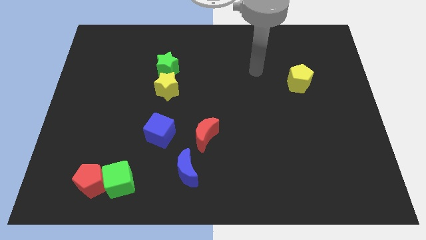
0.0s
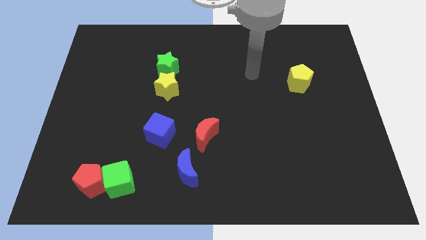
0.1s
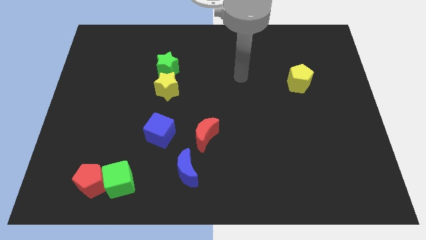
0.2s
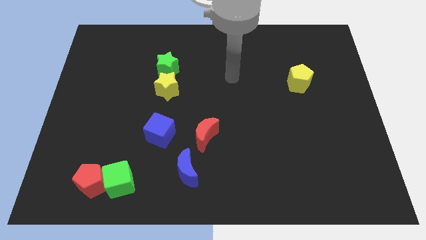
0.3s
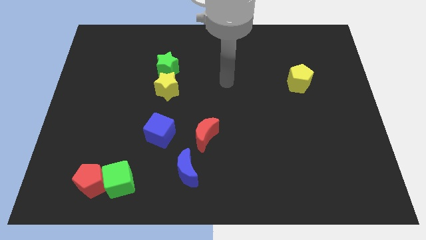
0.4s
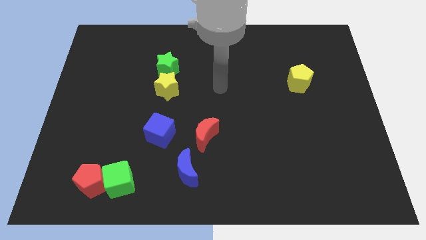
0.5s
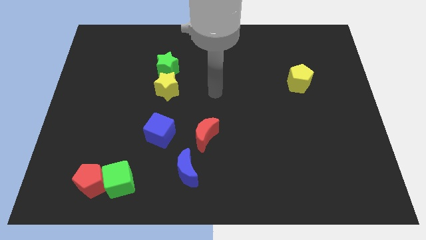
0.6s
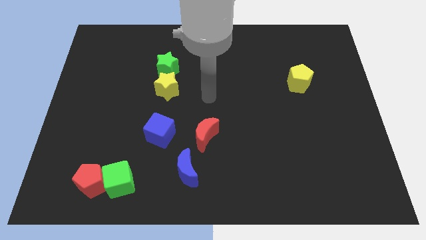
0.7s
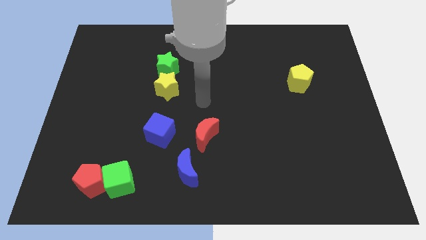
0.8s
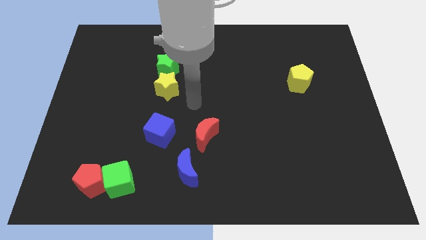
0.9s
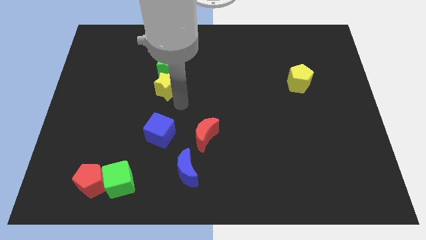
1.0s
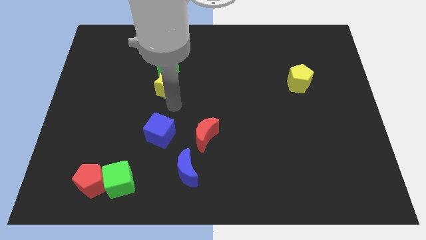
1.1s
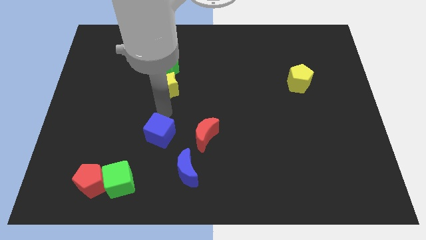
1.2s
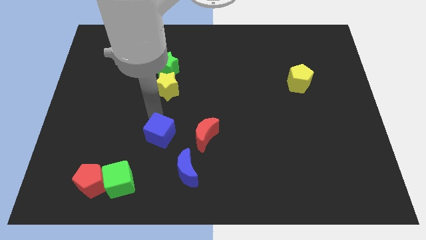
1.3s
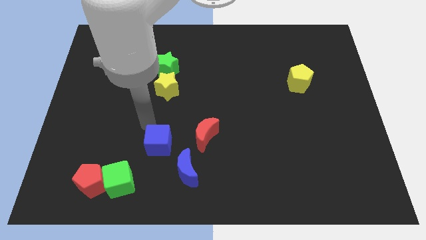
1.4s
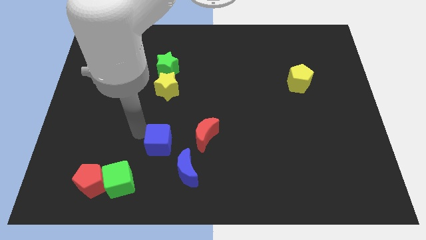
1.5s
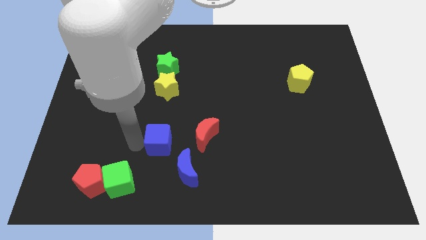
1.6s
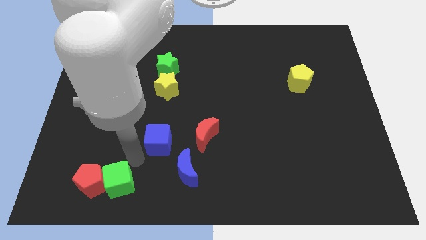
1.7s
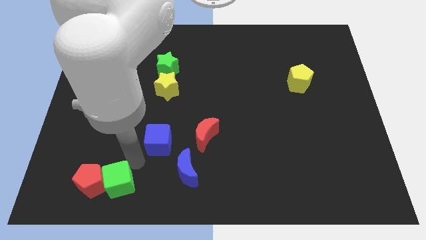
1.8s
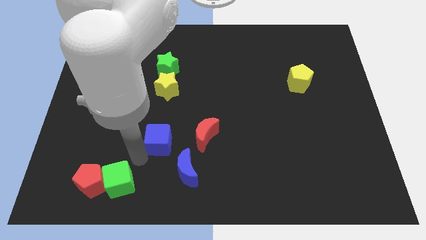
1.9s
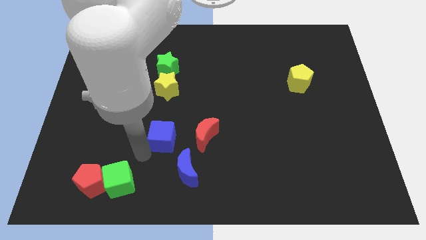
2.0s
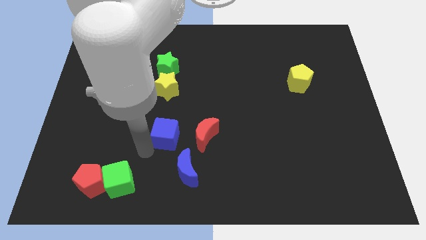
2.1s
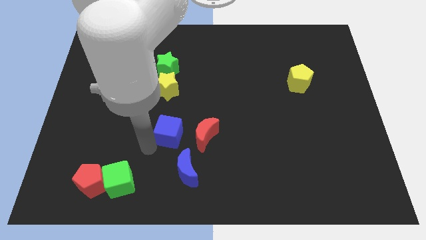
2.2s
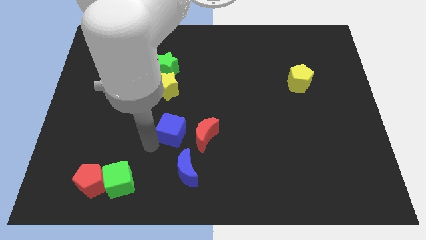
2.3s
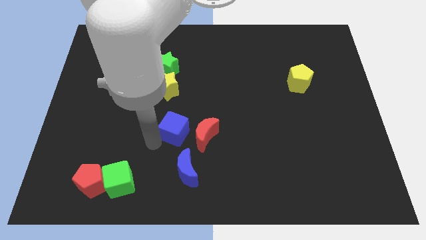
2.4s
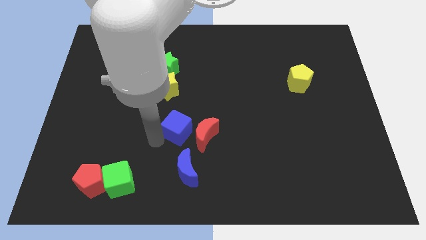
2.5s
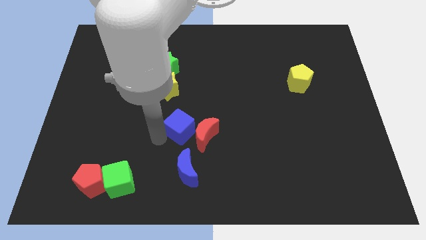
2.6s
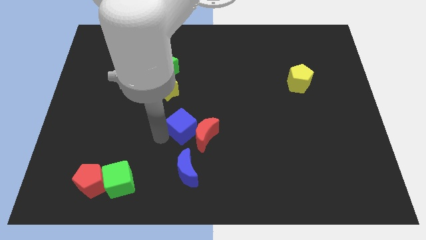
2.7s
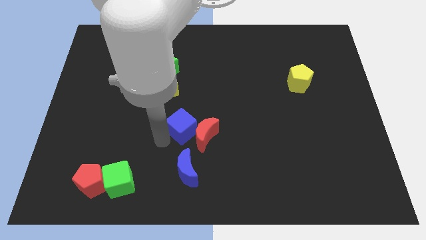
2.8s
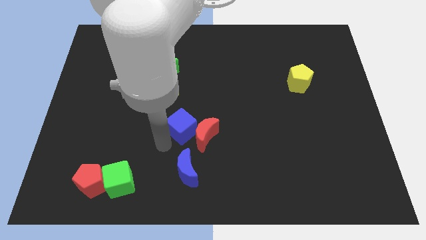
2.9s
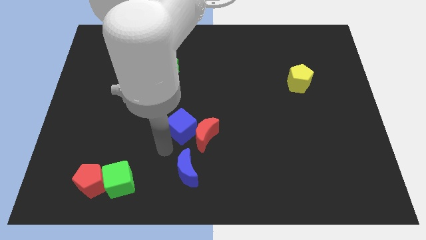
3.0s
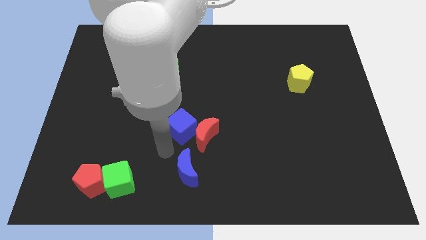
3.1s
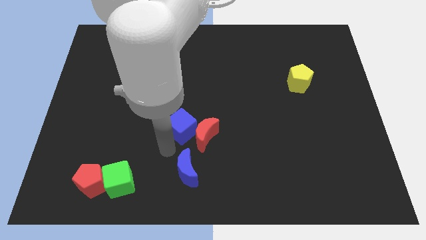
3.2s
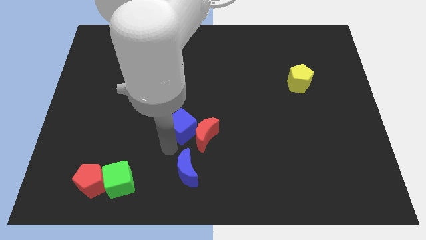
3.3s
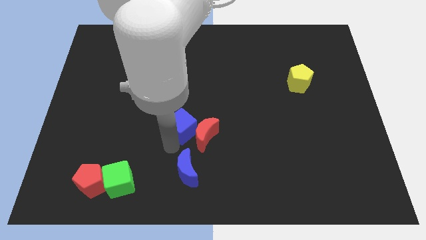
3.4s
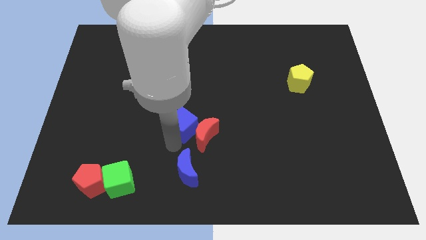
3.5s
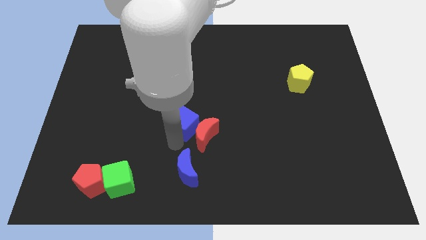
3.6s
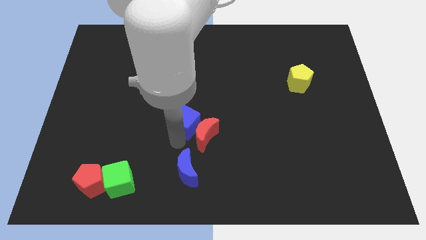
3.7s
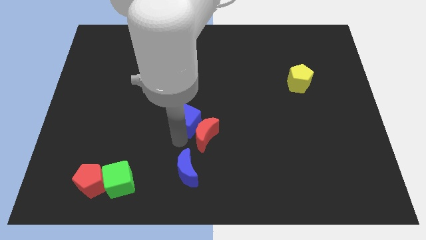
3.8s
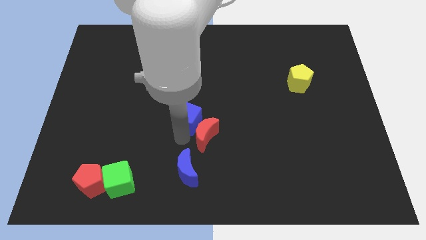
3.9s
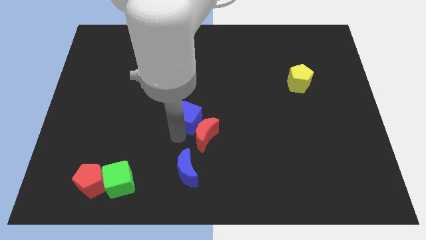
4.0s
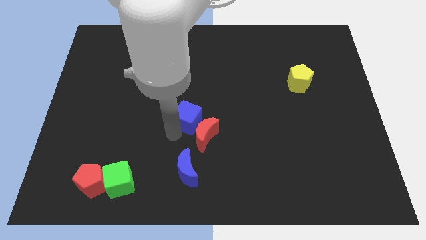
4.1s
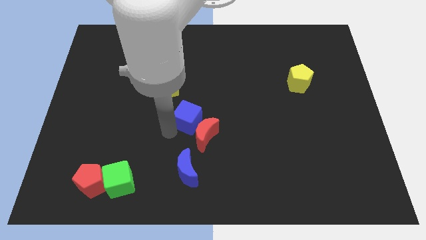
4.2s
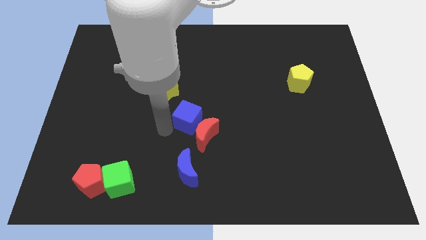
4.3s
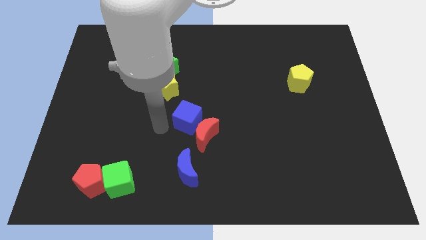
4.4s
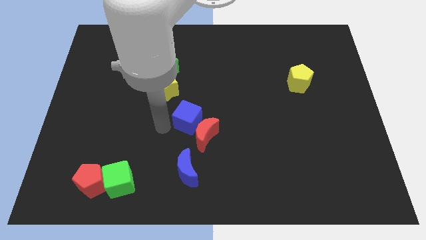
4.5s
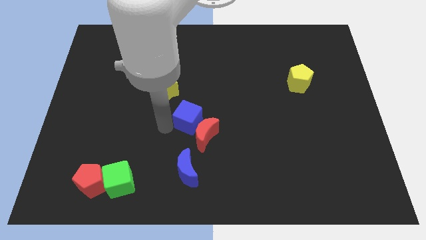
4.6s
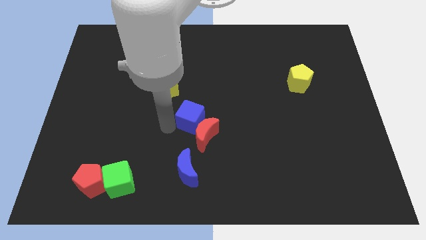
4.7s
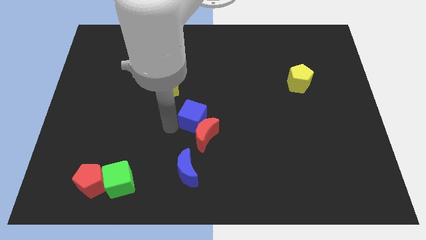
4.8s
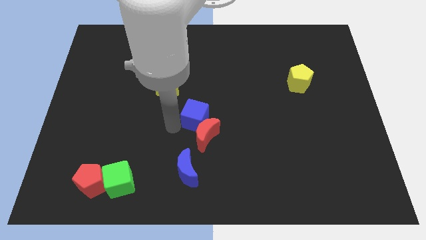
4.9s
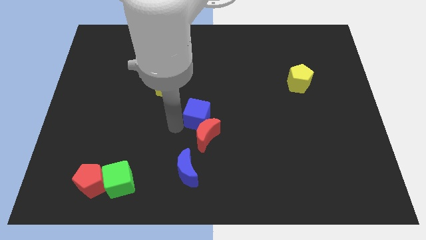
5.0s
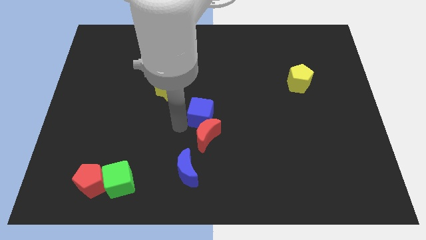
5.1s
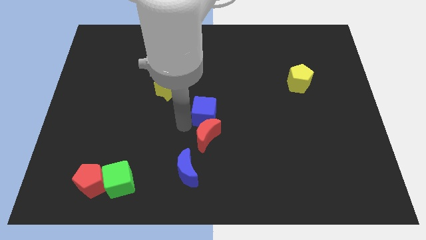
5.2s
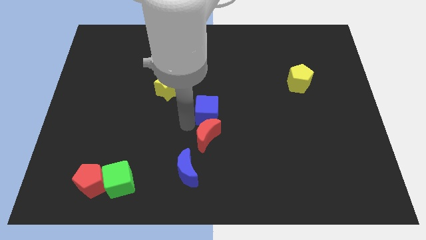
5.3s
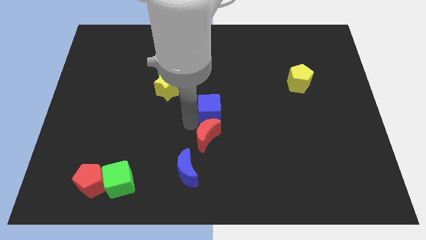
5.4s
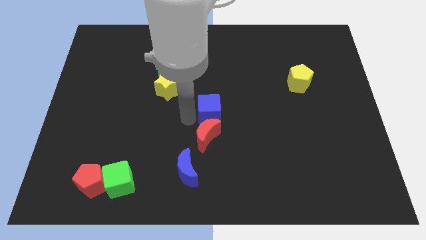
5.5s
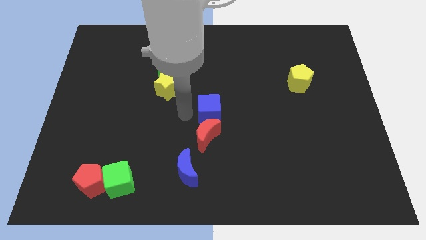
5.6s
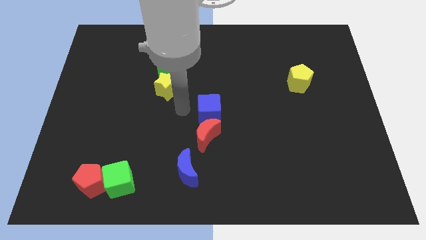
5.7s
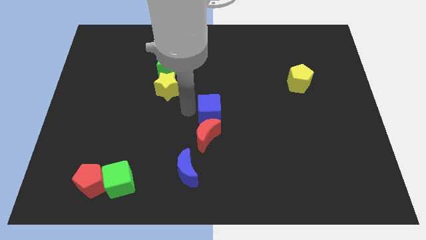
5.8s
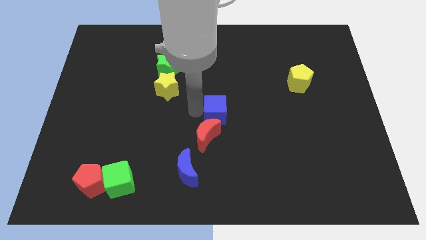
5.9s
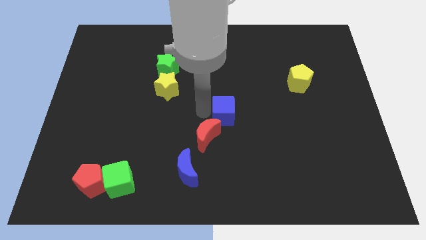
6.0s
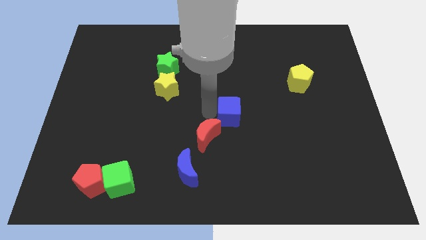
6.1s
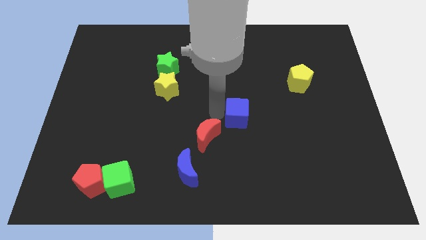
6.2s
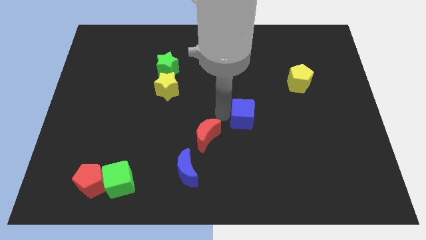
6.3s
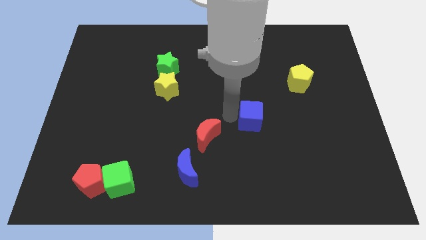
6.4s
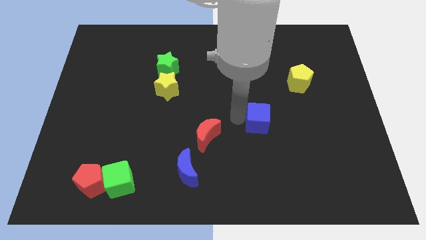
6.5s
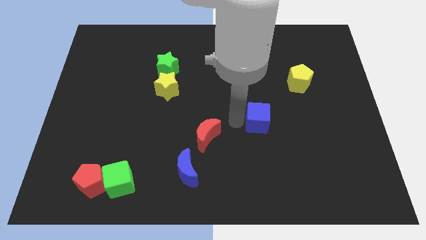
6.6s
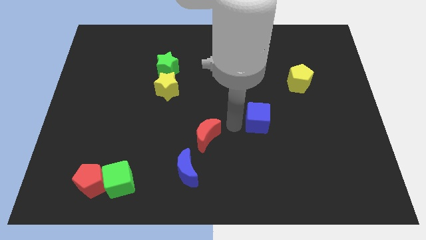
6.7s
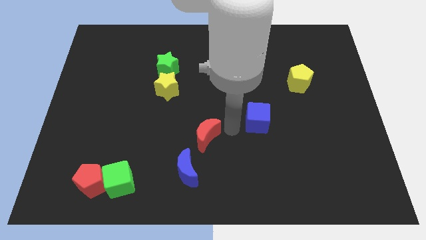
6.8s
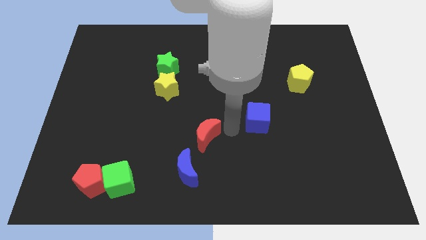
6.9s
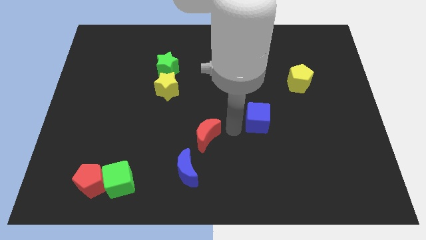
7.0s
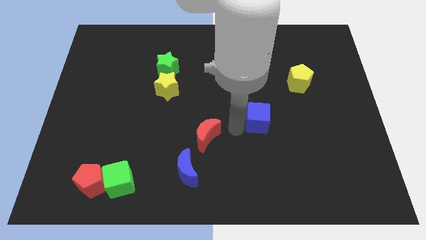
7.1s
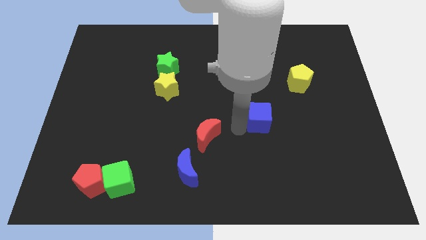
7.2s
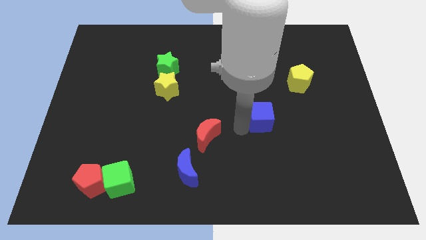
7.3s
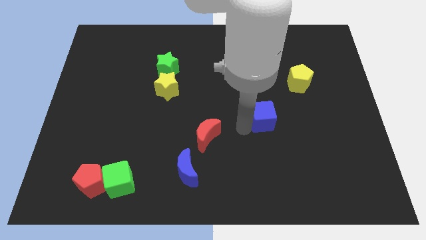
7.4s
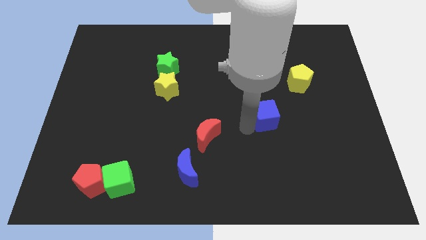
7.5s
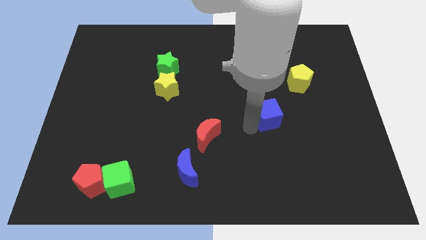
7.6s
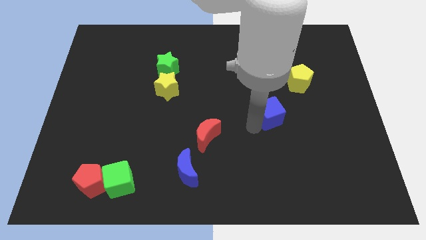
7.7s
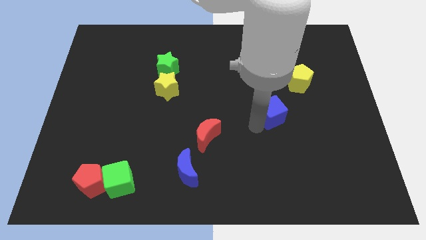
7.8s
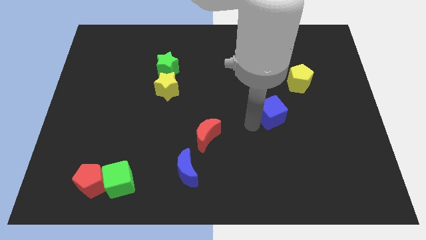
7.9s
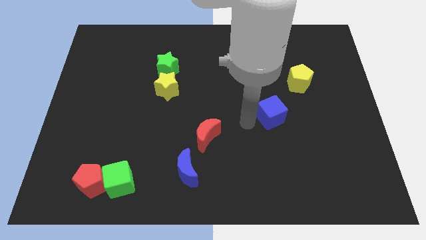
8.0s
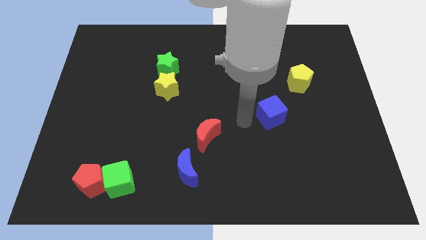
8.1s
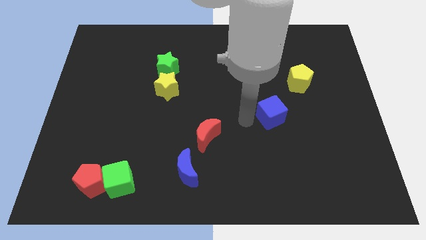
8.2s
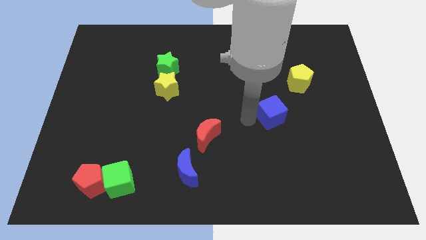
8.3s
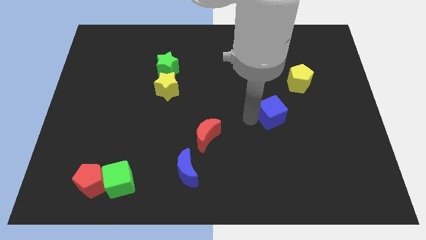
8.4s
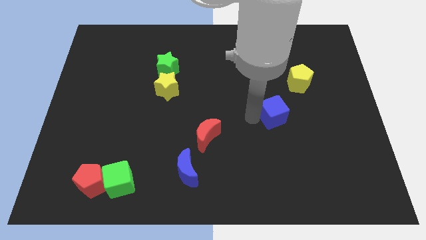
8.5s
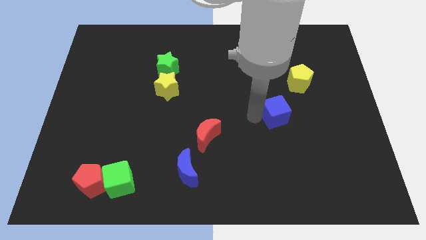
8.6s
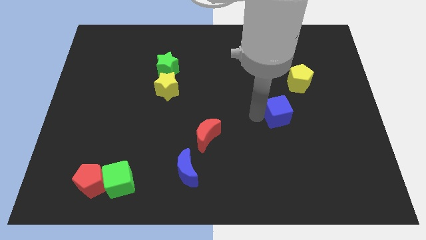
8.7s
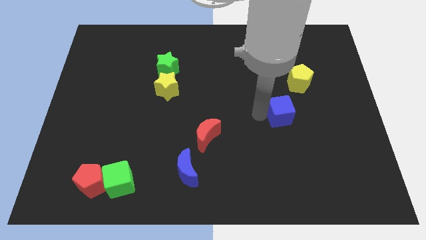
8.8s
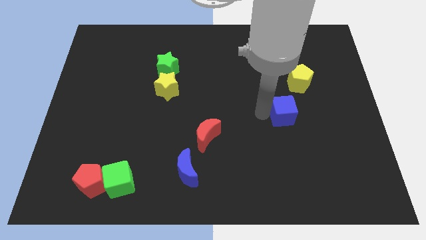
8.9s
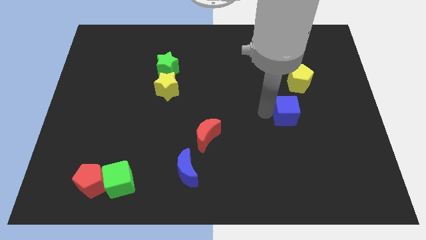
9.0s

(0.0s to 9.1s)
move the blue cube to the bottom of the yellow pentagon
